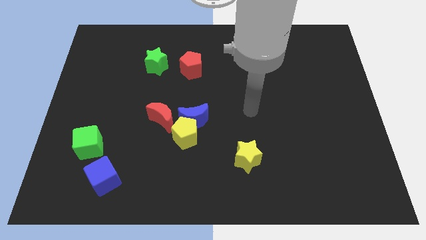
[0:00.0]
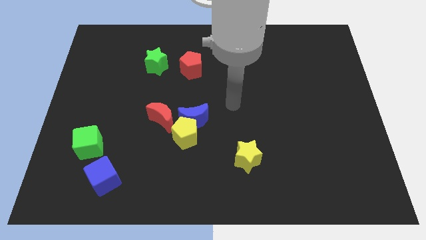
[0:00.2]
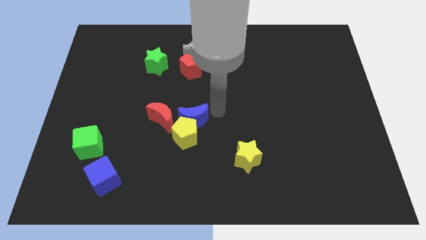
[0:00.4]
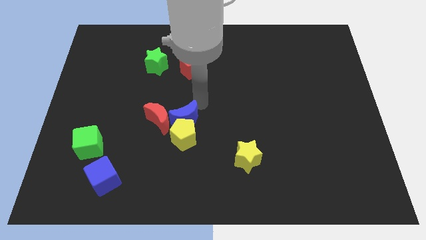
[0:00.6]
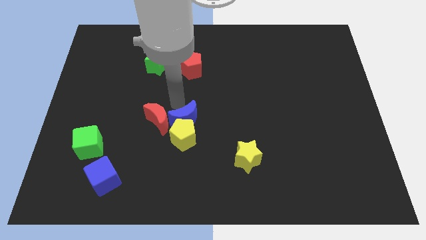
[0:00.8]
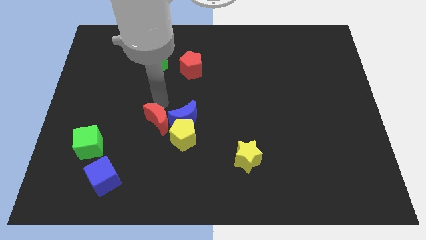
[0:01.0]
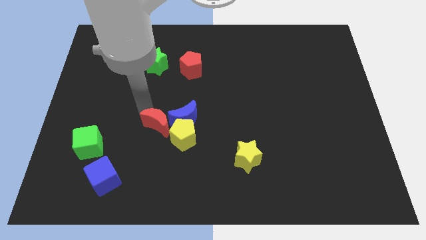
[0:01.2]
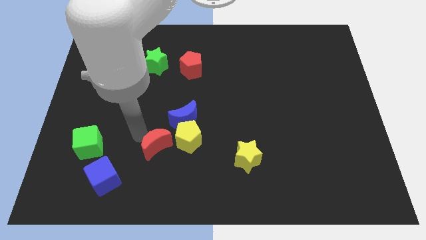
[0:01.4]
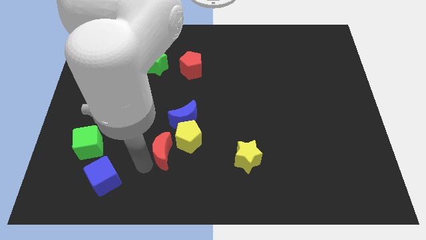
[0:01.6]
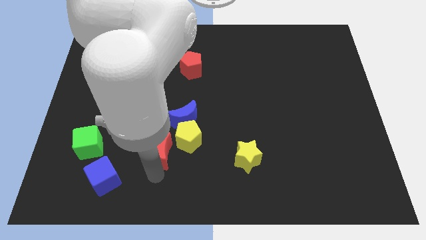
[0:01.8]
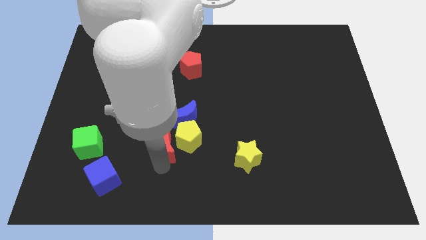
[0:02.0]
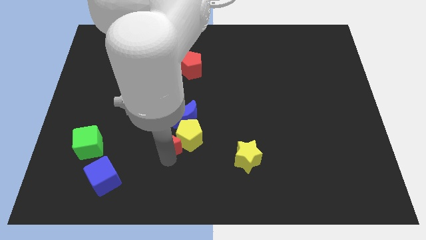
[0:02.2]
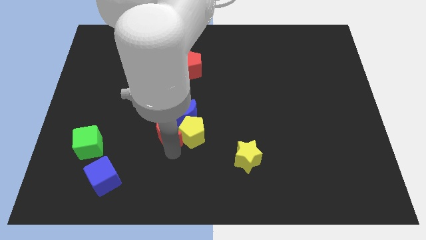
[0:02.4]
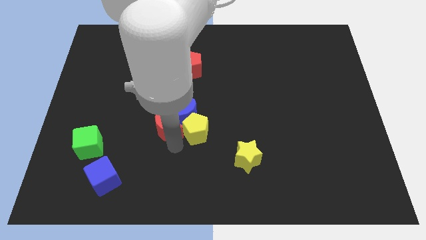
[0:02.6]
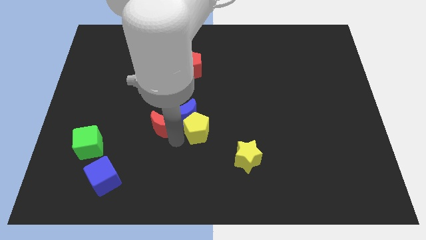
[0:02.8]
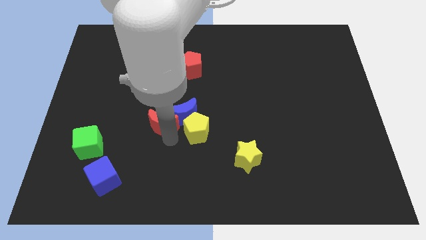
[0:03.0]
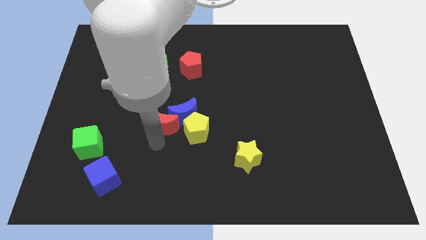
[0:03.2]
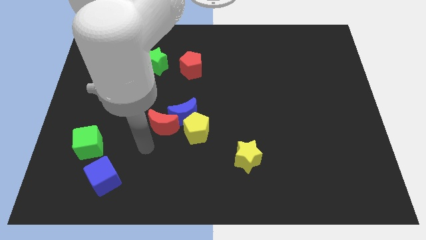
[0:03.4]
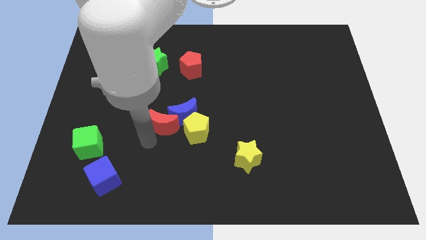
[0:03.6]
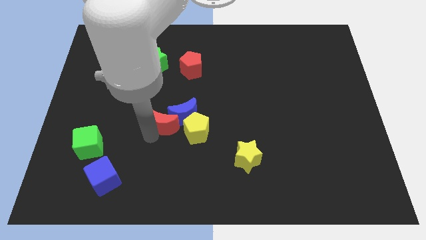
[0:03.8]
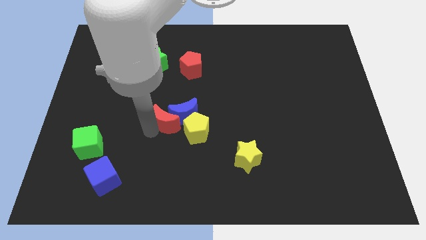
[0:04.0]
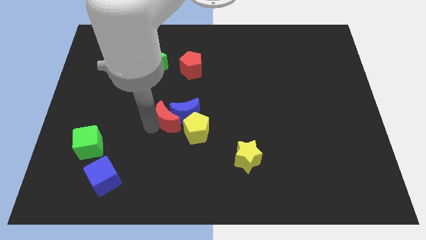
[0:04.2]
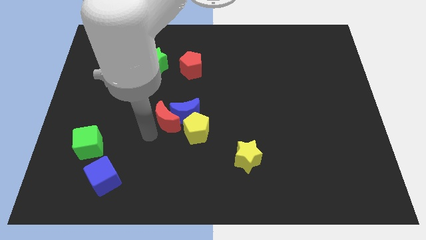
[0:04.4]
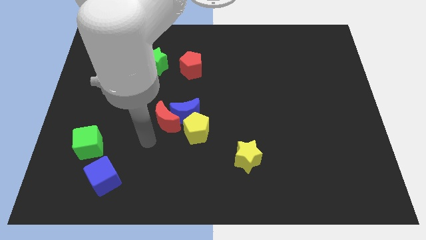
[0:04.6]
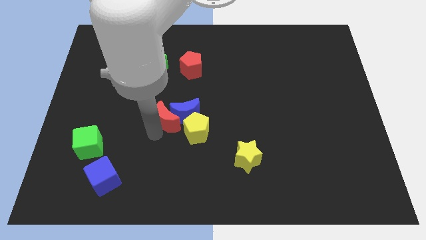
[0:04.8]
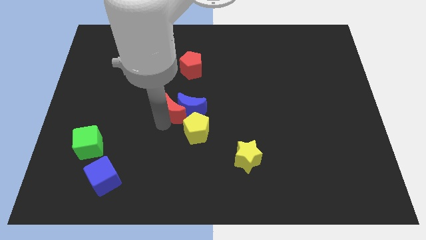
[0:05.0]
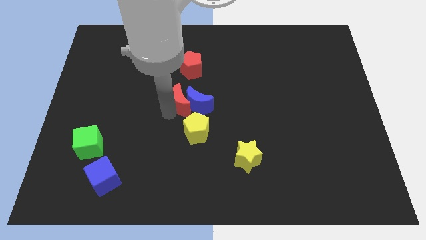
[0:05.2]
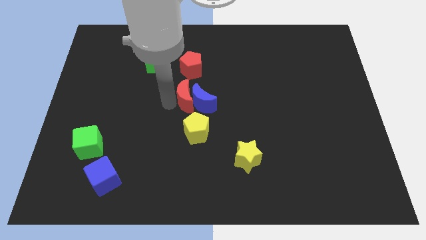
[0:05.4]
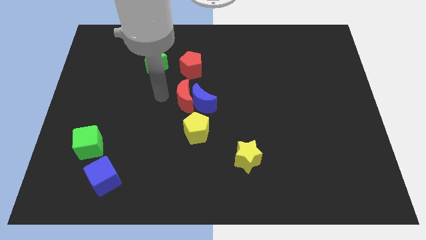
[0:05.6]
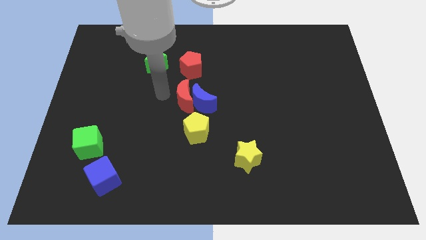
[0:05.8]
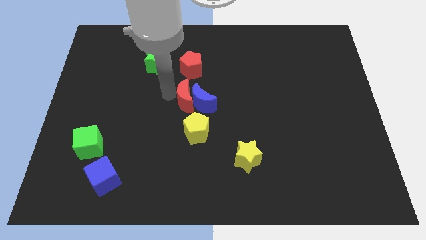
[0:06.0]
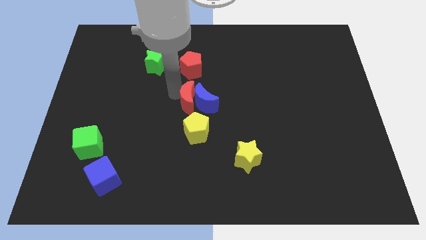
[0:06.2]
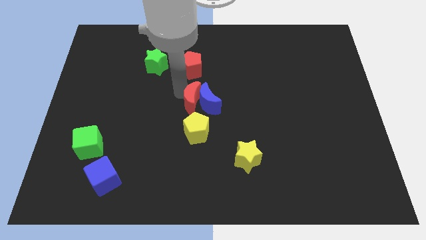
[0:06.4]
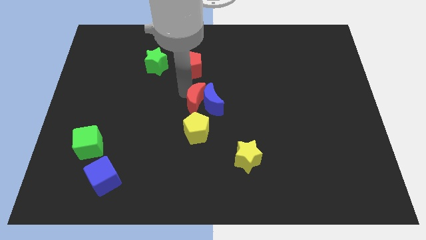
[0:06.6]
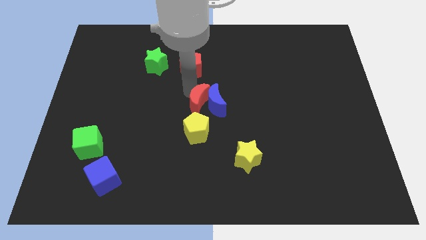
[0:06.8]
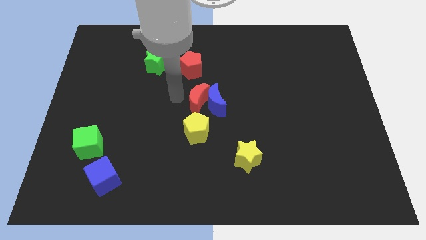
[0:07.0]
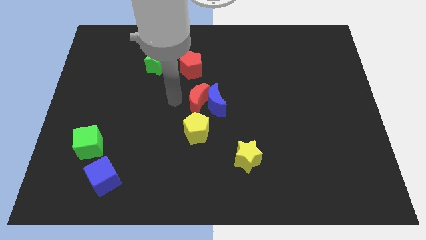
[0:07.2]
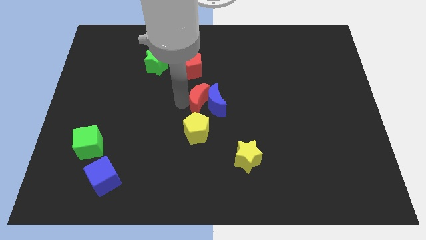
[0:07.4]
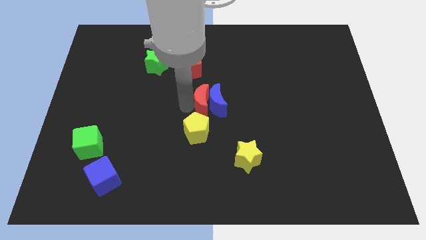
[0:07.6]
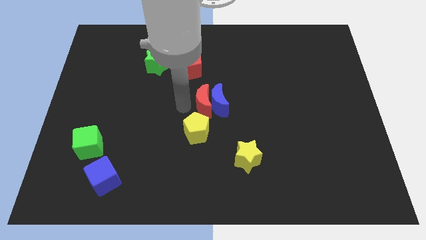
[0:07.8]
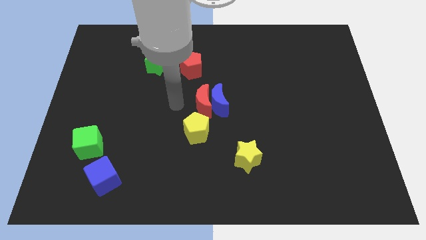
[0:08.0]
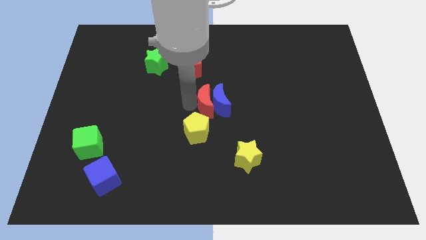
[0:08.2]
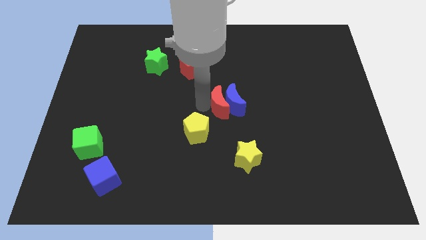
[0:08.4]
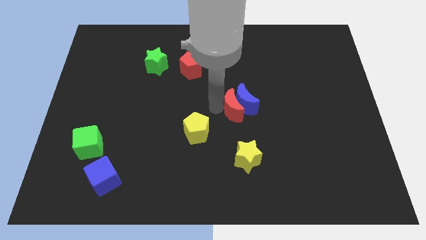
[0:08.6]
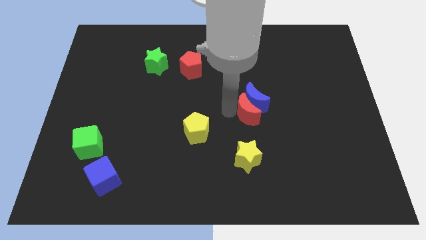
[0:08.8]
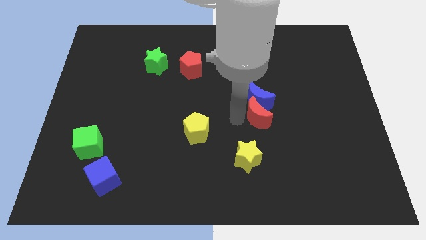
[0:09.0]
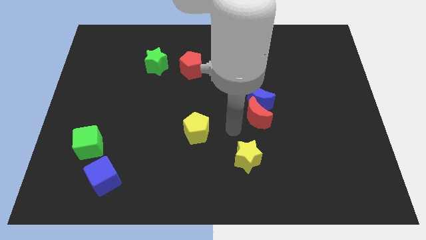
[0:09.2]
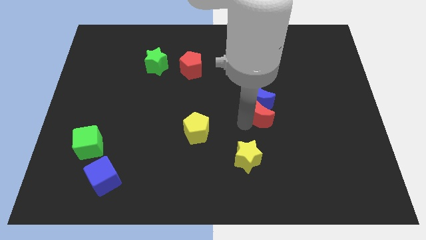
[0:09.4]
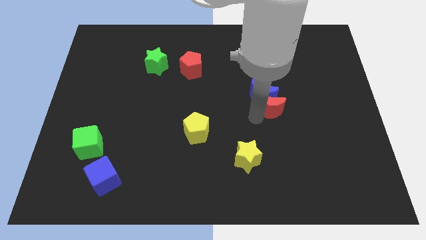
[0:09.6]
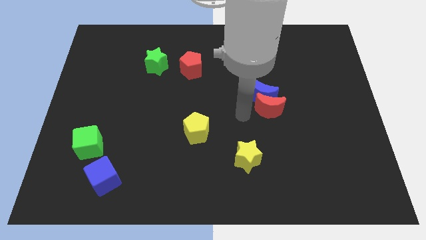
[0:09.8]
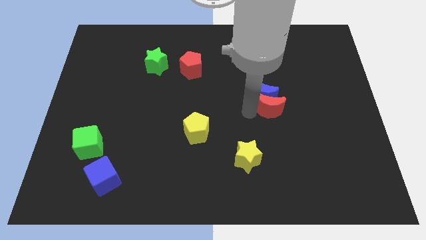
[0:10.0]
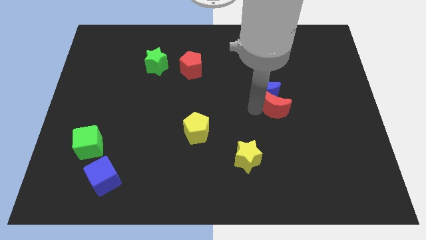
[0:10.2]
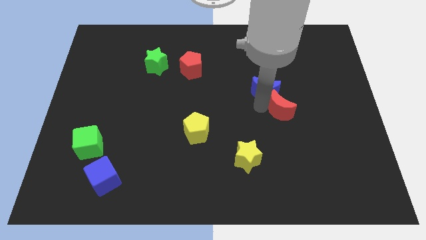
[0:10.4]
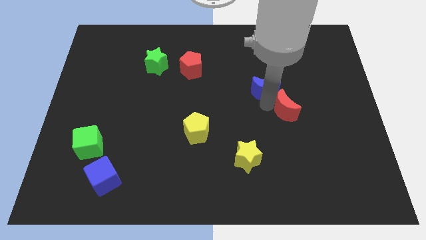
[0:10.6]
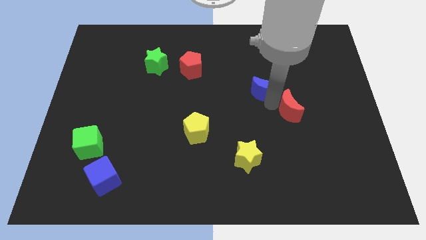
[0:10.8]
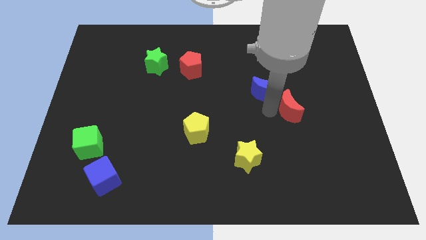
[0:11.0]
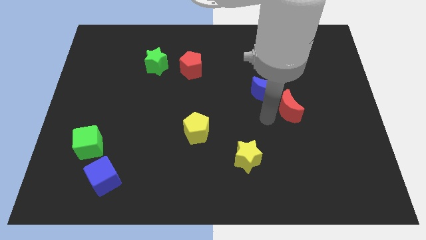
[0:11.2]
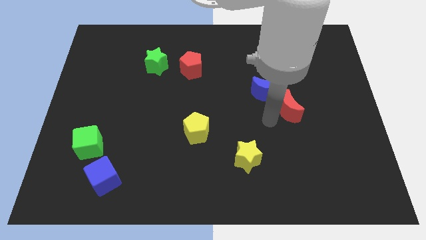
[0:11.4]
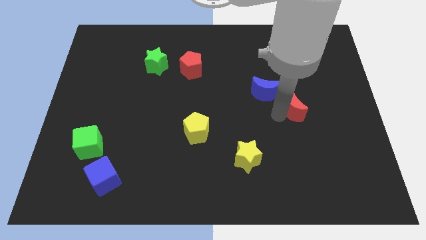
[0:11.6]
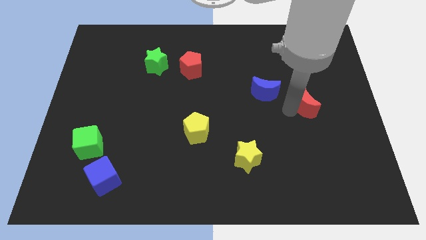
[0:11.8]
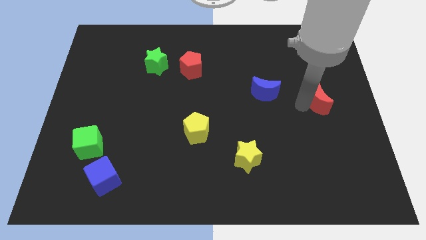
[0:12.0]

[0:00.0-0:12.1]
move the red moon to the right side
